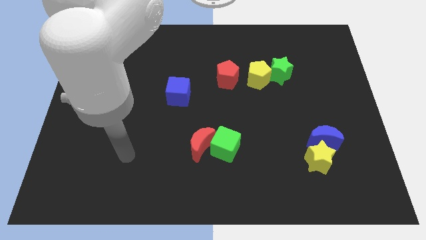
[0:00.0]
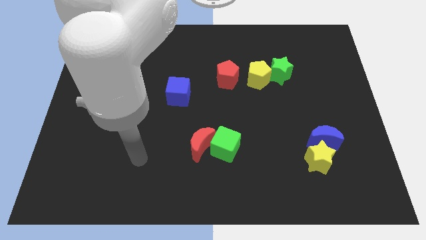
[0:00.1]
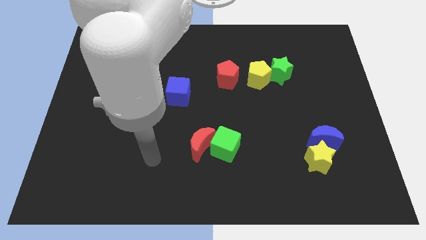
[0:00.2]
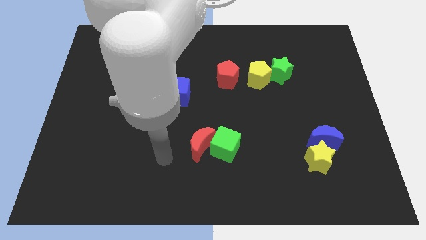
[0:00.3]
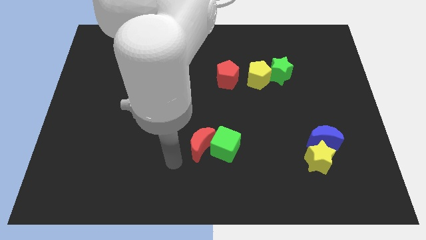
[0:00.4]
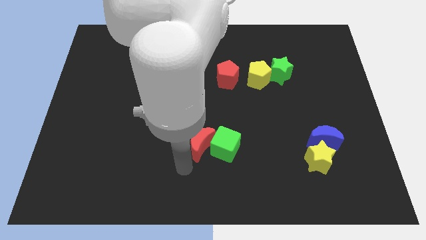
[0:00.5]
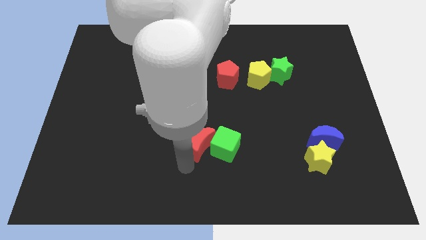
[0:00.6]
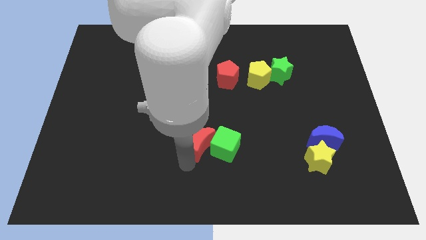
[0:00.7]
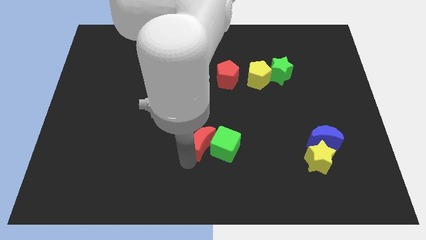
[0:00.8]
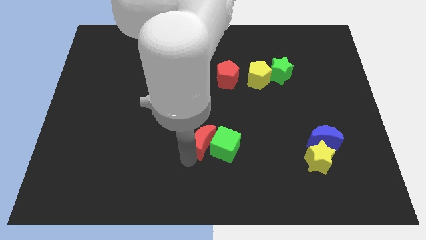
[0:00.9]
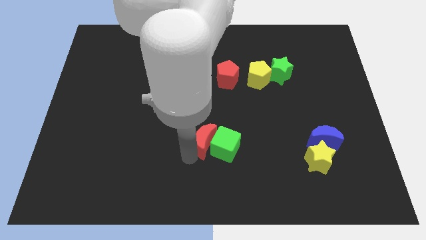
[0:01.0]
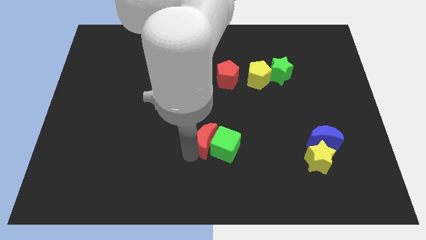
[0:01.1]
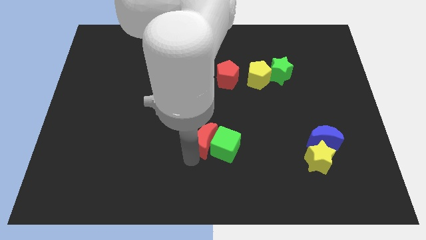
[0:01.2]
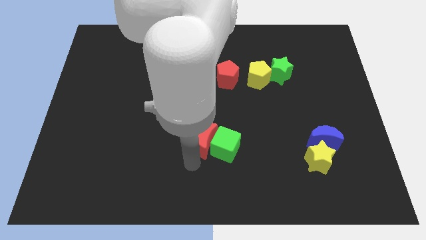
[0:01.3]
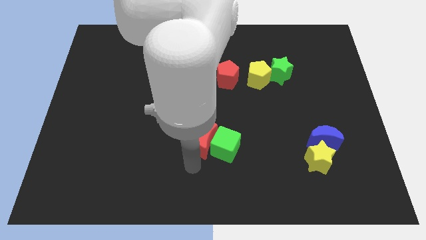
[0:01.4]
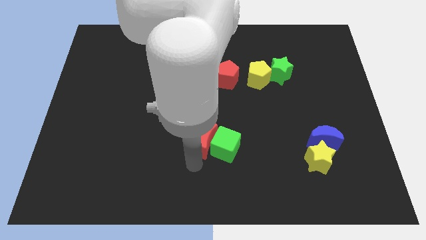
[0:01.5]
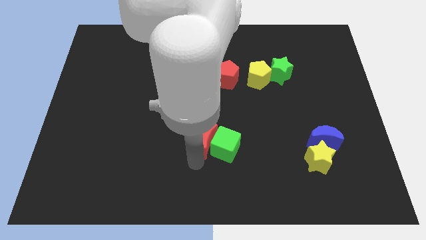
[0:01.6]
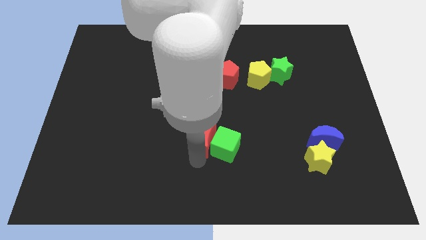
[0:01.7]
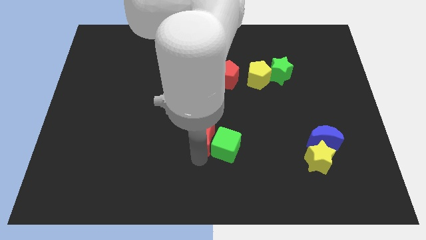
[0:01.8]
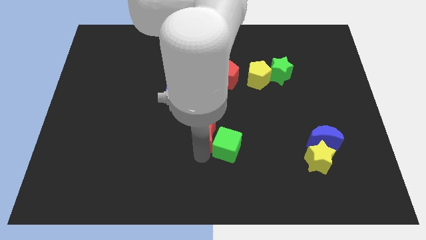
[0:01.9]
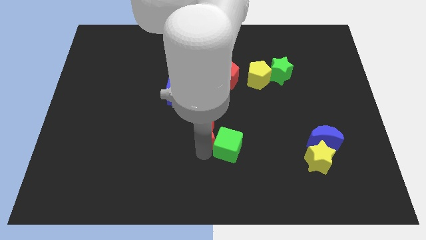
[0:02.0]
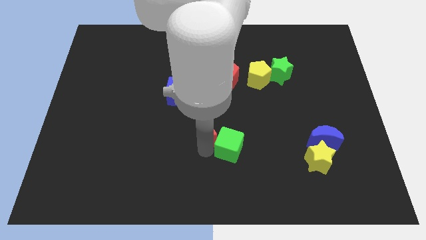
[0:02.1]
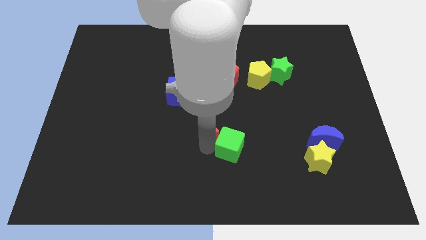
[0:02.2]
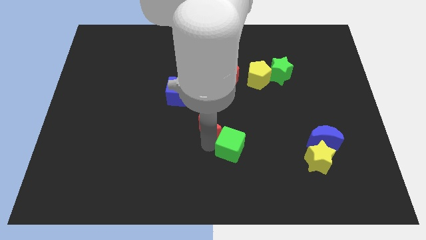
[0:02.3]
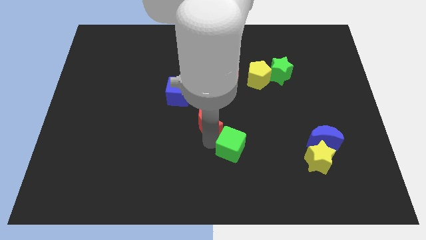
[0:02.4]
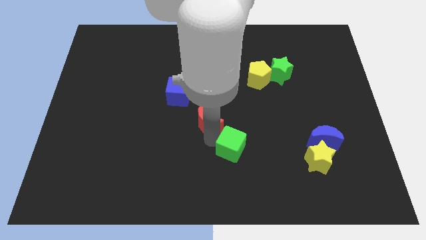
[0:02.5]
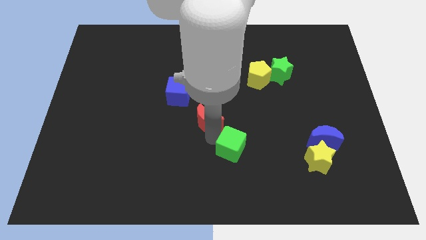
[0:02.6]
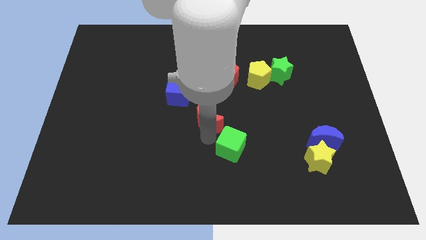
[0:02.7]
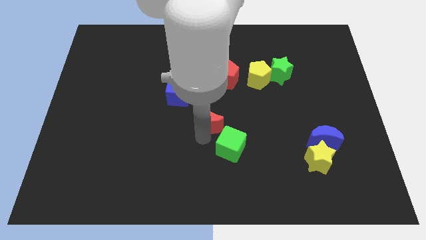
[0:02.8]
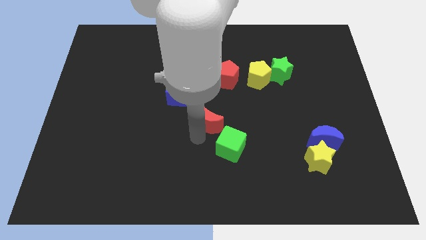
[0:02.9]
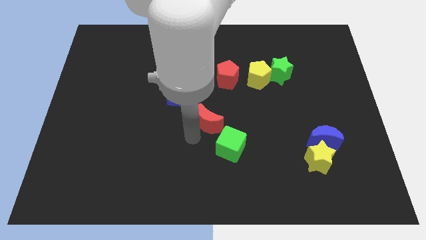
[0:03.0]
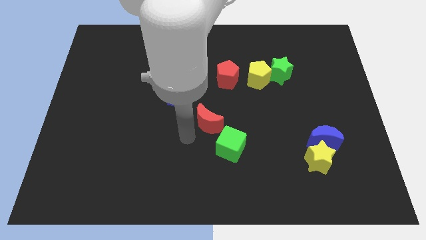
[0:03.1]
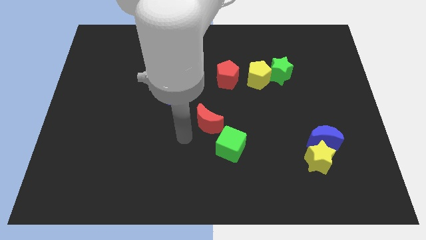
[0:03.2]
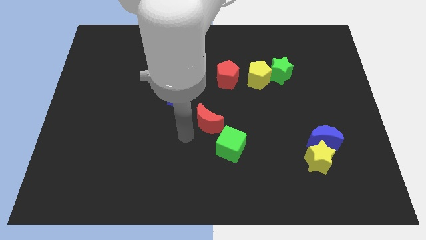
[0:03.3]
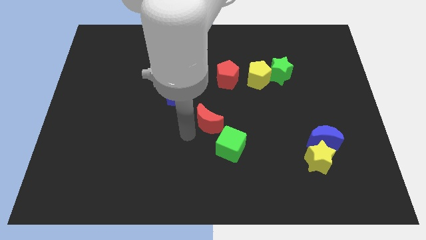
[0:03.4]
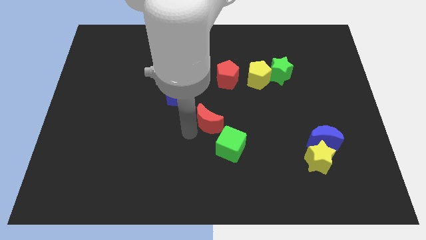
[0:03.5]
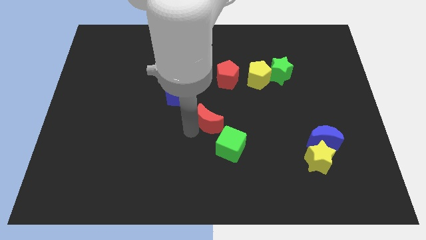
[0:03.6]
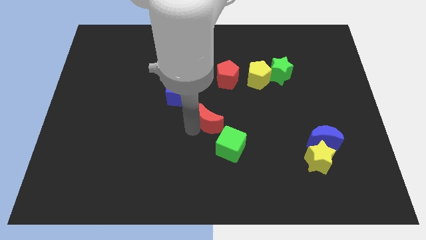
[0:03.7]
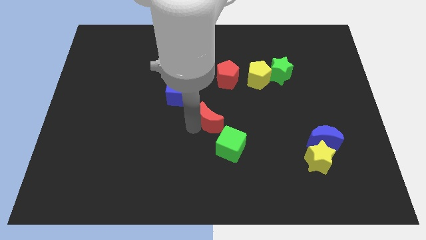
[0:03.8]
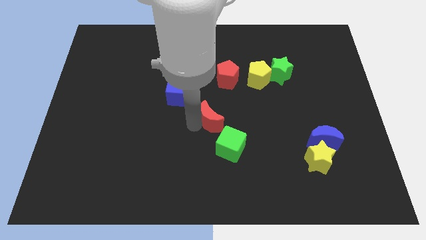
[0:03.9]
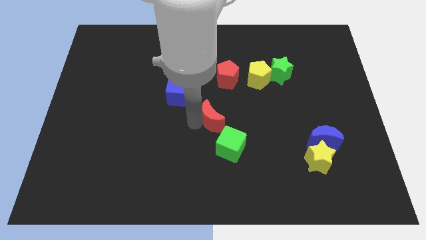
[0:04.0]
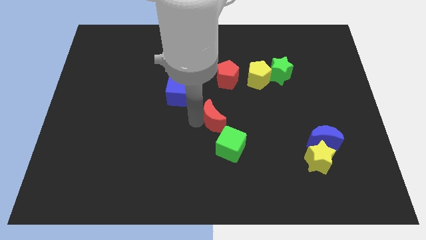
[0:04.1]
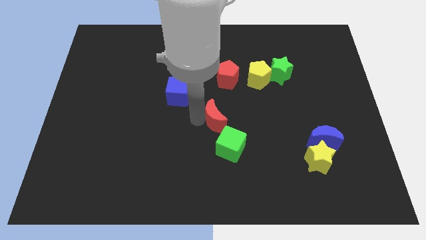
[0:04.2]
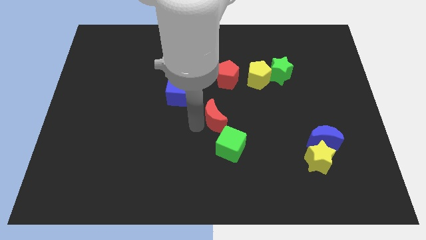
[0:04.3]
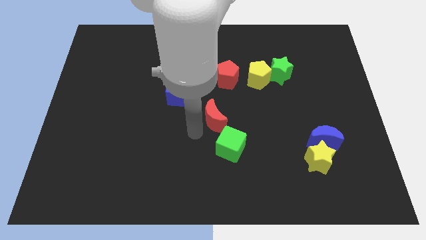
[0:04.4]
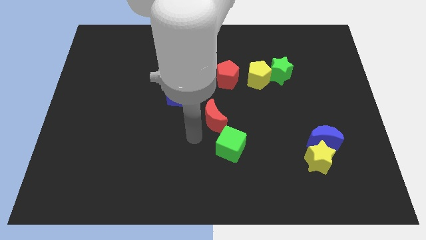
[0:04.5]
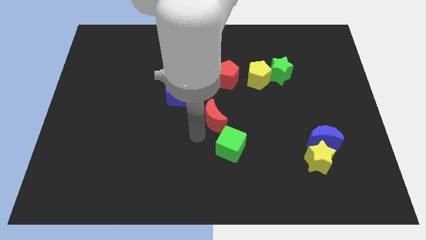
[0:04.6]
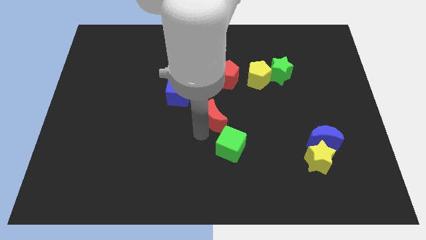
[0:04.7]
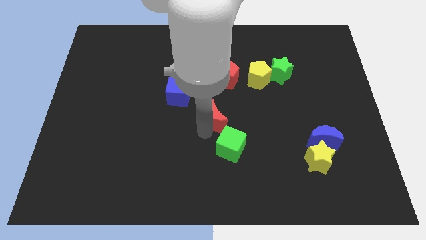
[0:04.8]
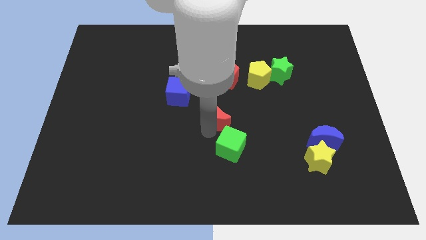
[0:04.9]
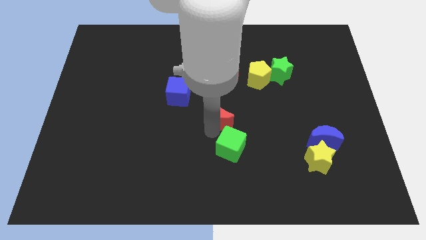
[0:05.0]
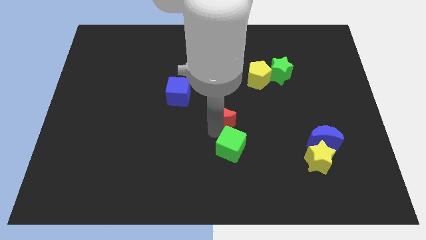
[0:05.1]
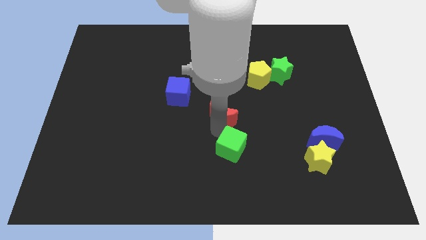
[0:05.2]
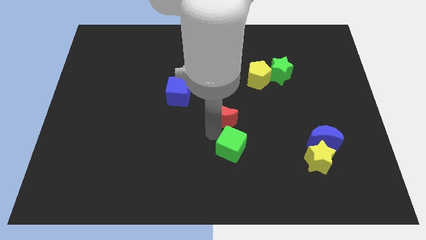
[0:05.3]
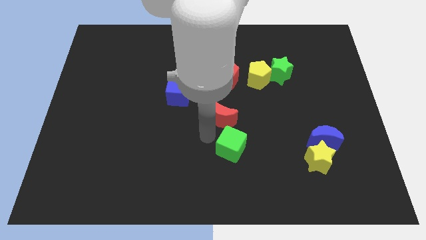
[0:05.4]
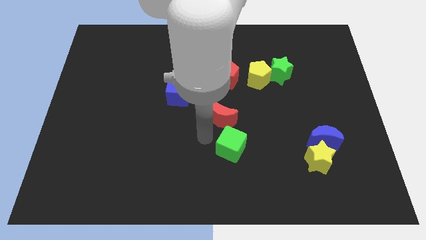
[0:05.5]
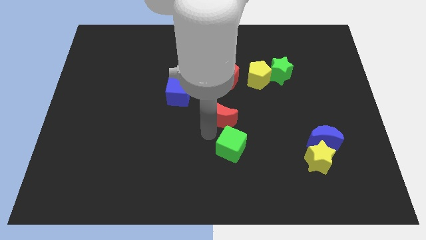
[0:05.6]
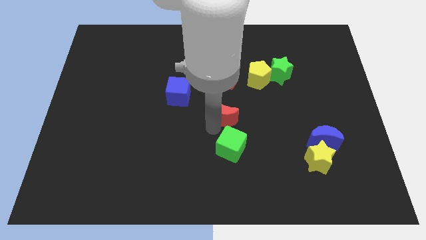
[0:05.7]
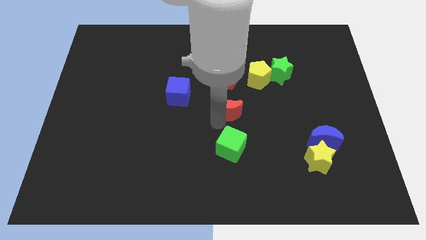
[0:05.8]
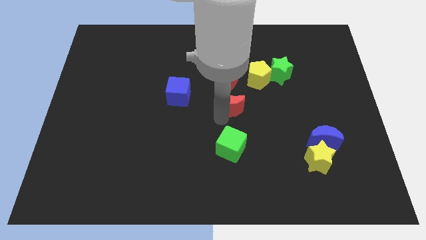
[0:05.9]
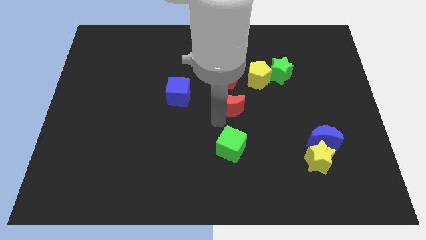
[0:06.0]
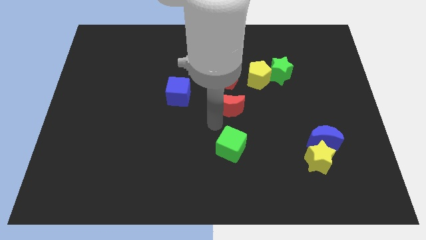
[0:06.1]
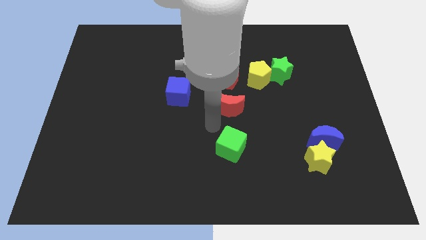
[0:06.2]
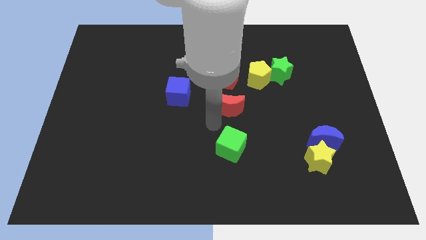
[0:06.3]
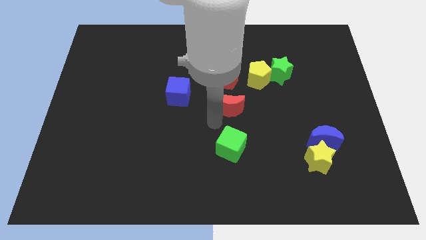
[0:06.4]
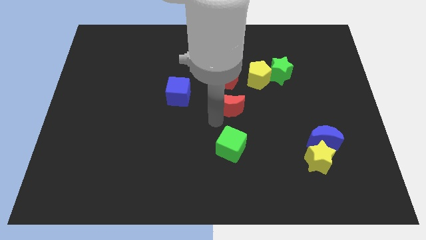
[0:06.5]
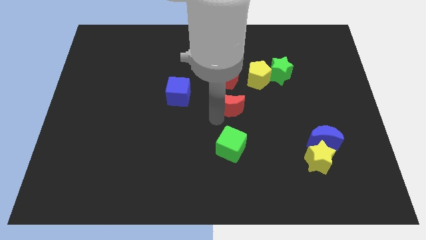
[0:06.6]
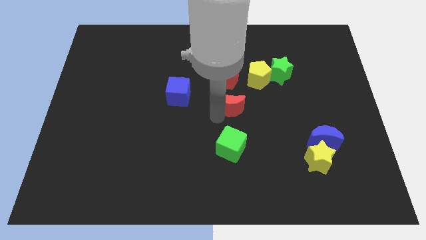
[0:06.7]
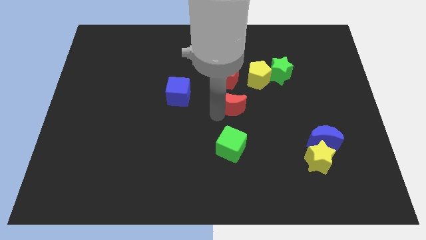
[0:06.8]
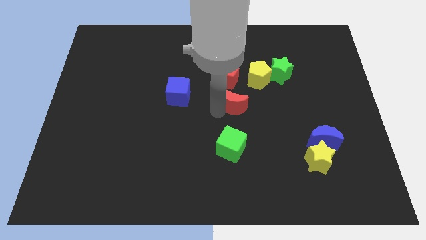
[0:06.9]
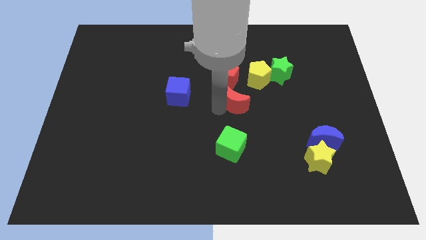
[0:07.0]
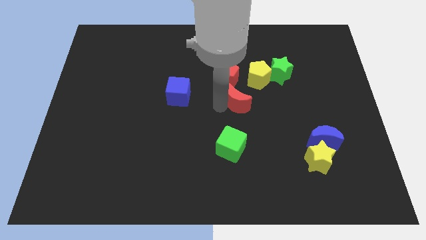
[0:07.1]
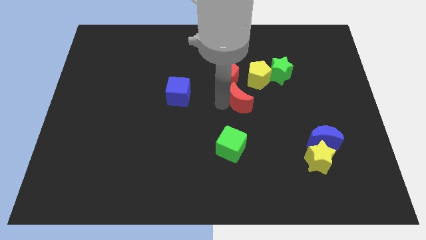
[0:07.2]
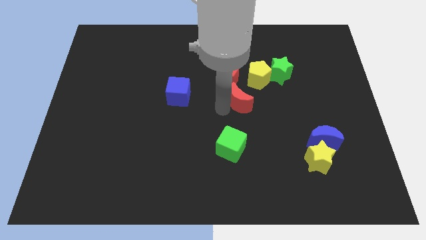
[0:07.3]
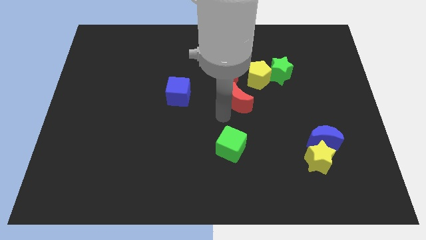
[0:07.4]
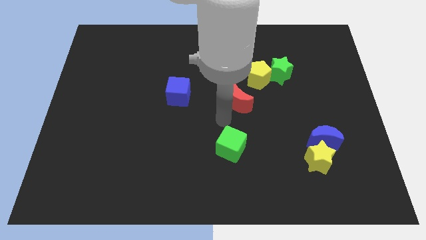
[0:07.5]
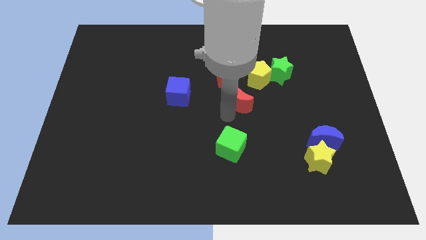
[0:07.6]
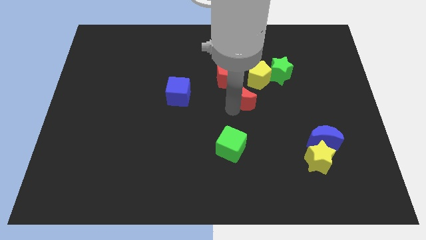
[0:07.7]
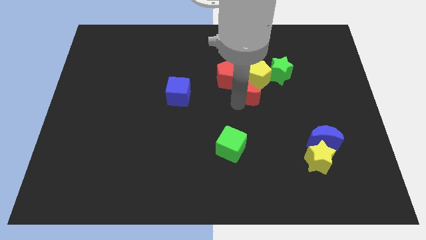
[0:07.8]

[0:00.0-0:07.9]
move the red moon next to the yellow pentagon
